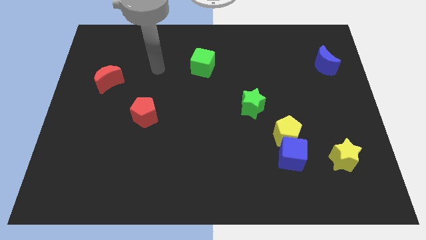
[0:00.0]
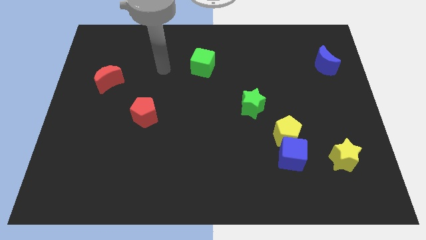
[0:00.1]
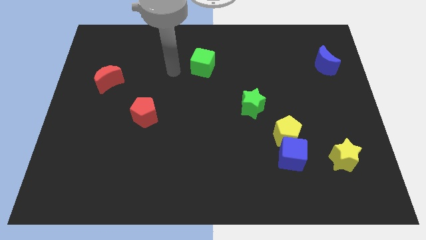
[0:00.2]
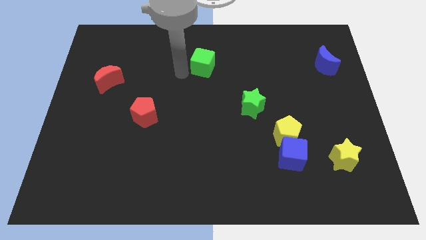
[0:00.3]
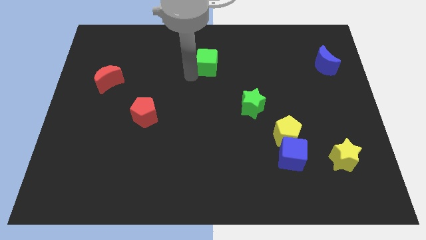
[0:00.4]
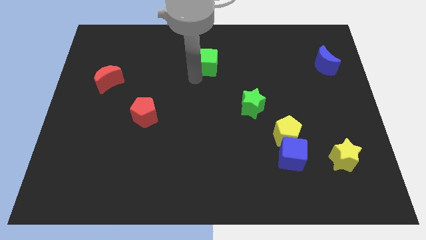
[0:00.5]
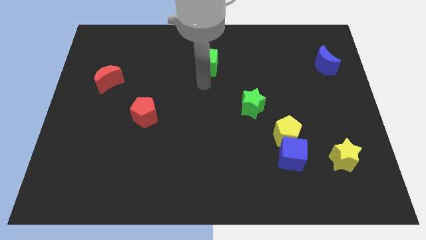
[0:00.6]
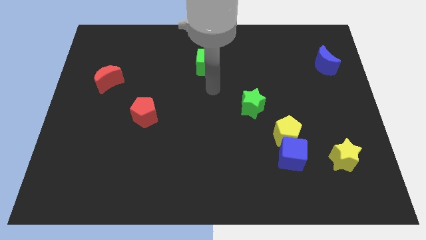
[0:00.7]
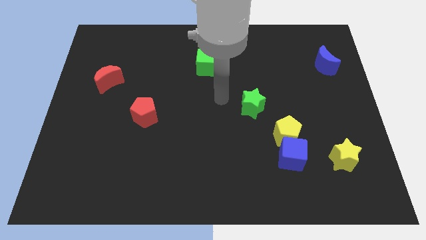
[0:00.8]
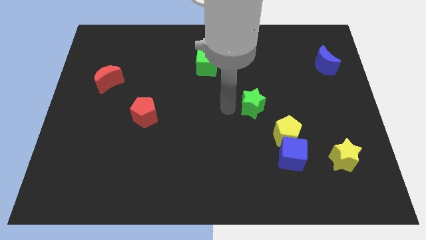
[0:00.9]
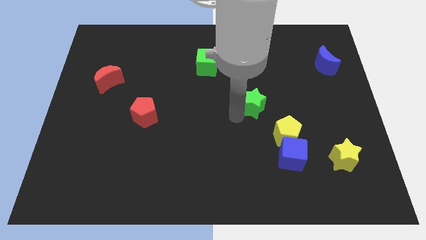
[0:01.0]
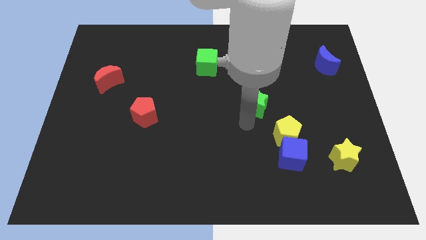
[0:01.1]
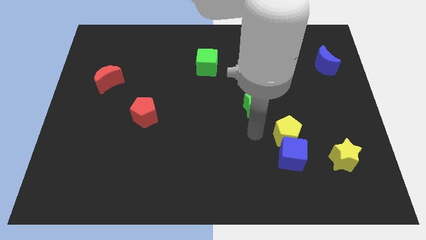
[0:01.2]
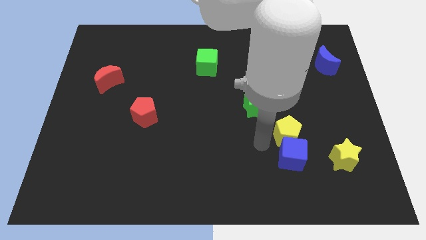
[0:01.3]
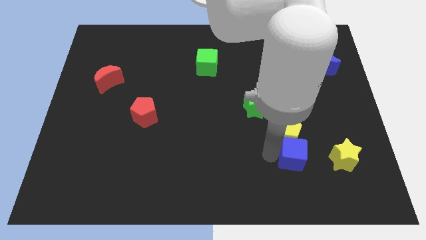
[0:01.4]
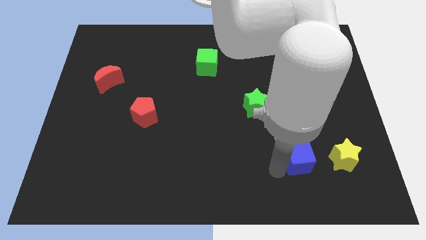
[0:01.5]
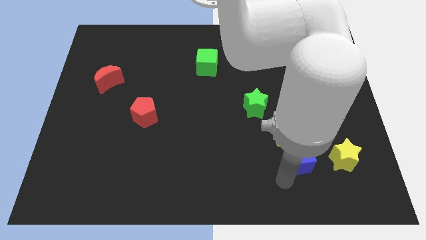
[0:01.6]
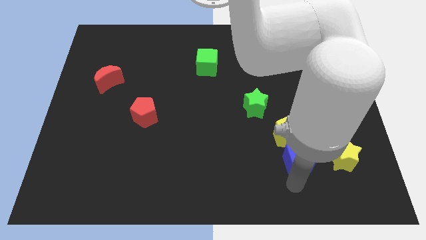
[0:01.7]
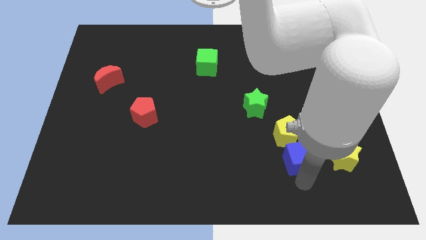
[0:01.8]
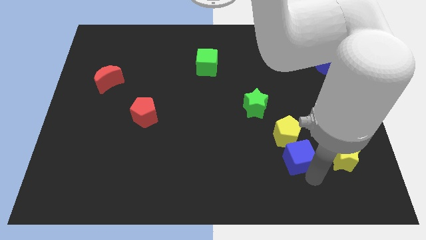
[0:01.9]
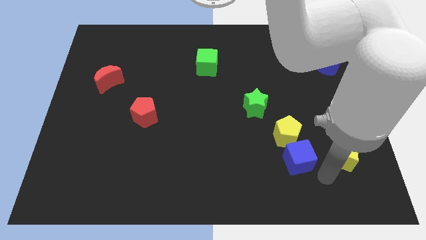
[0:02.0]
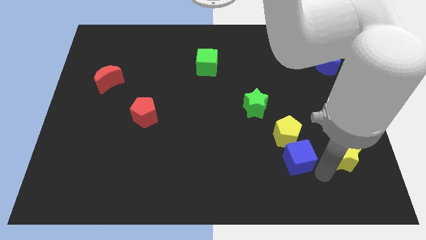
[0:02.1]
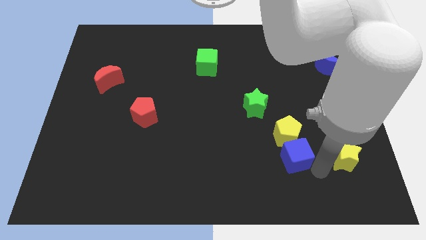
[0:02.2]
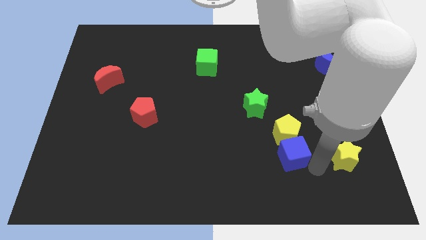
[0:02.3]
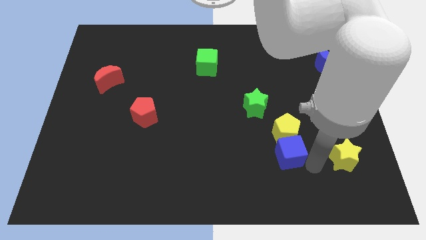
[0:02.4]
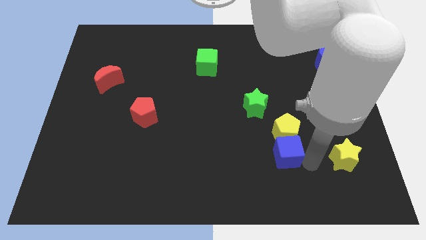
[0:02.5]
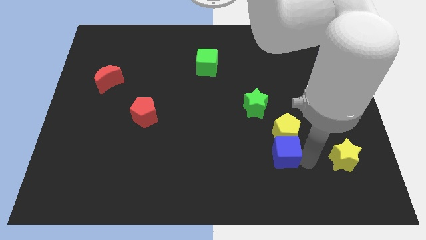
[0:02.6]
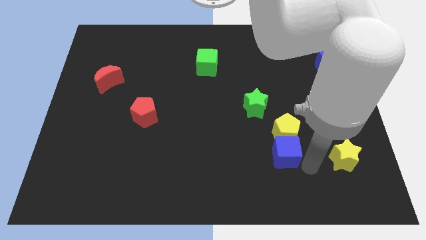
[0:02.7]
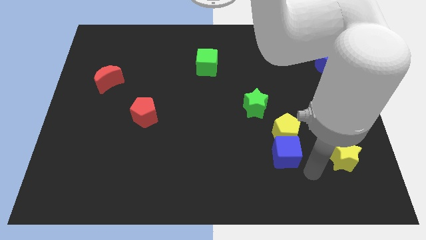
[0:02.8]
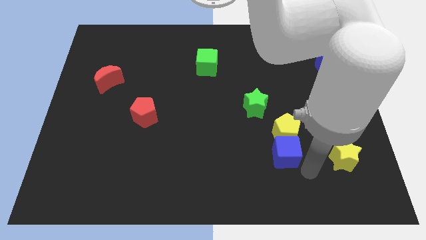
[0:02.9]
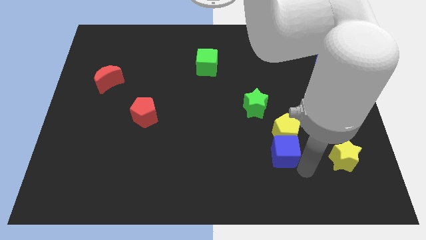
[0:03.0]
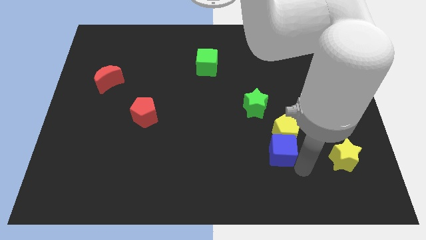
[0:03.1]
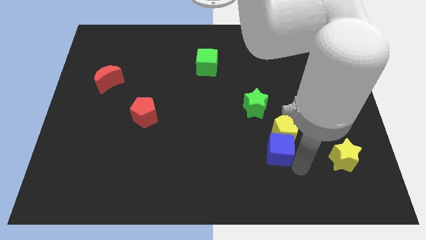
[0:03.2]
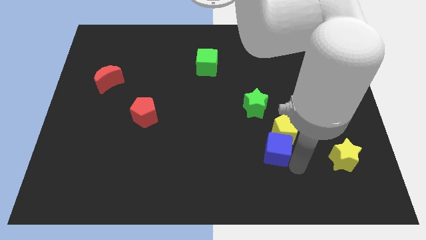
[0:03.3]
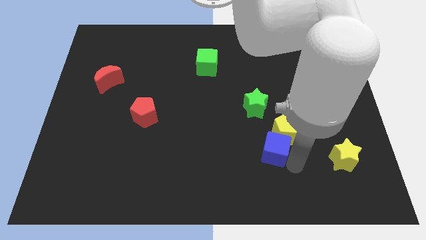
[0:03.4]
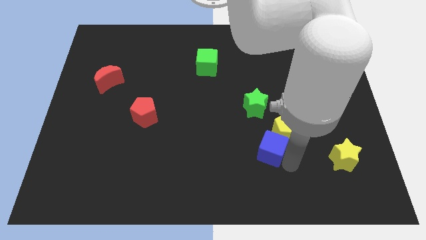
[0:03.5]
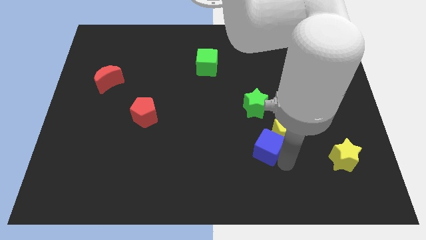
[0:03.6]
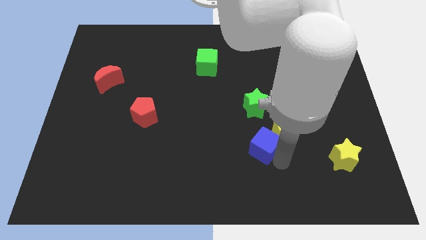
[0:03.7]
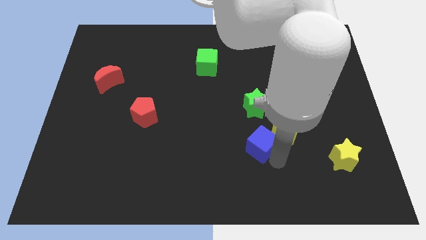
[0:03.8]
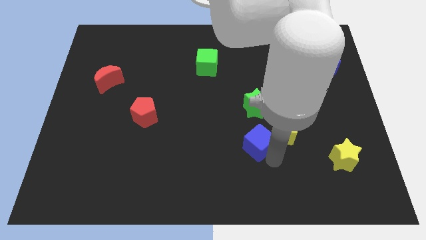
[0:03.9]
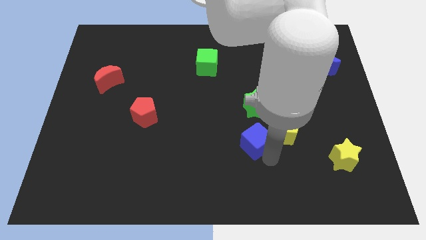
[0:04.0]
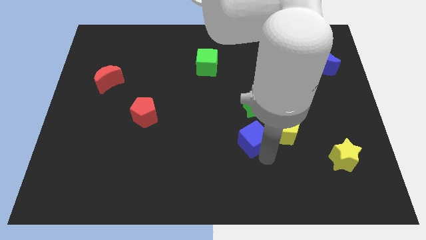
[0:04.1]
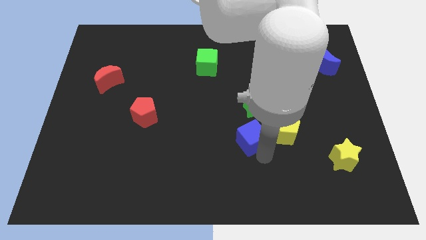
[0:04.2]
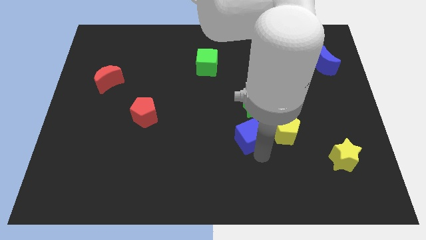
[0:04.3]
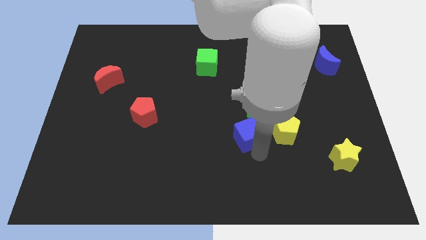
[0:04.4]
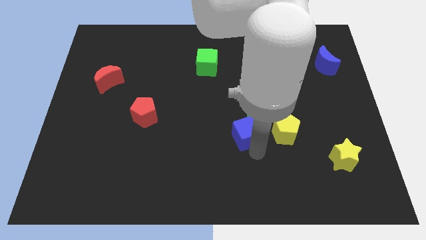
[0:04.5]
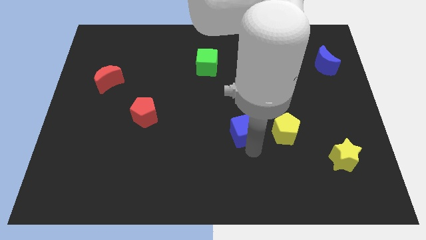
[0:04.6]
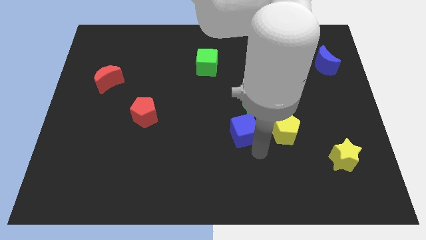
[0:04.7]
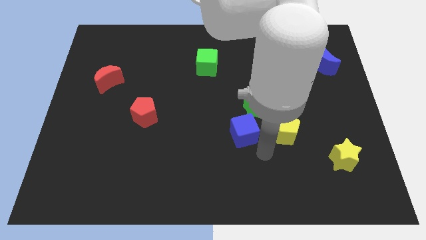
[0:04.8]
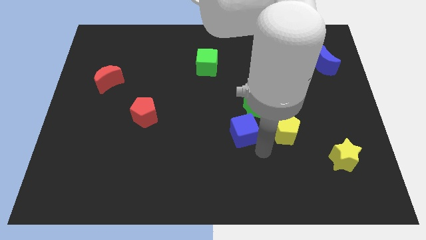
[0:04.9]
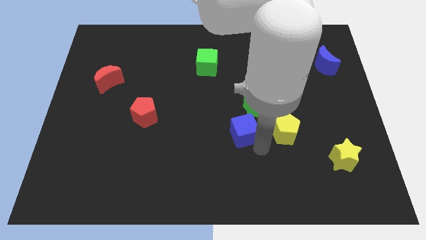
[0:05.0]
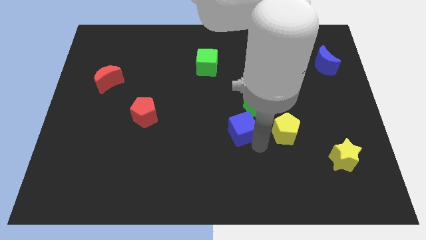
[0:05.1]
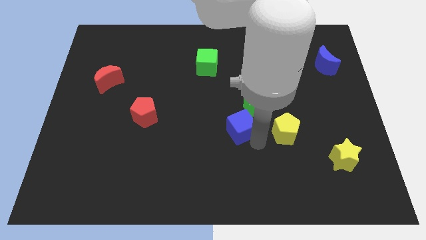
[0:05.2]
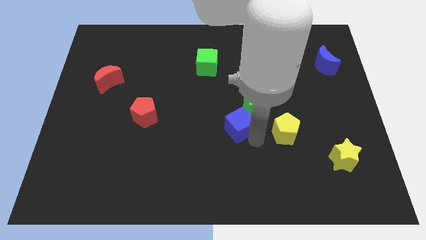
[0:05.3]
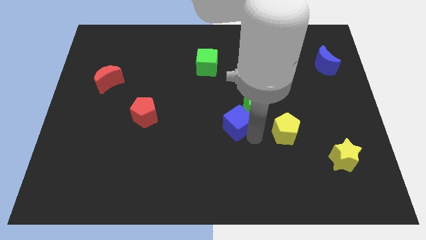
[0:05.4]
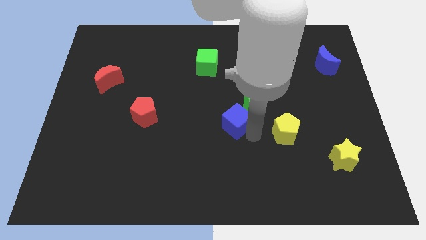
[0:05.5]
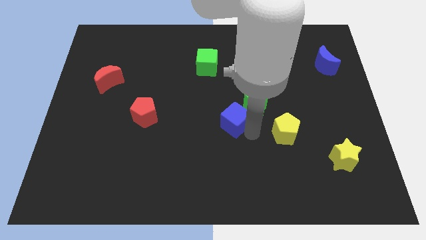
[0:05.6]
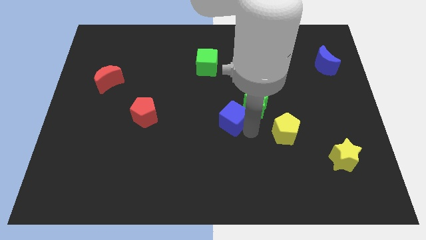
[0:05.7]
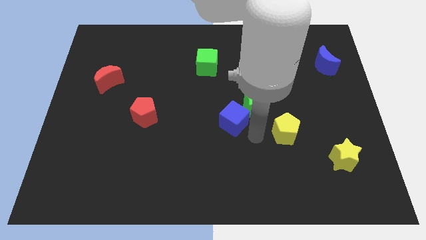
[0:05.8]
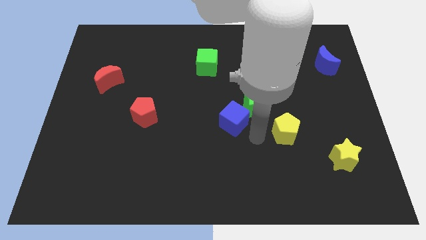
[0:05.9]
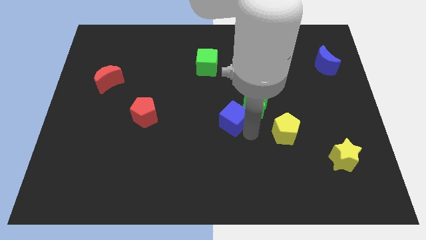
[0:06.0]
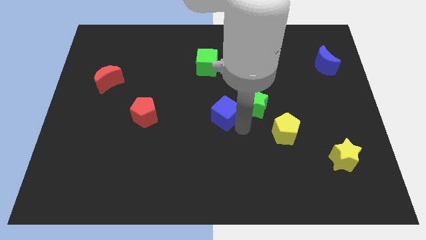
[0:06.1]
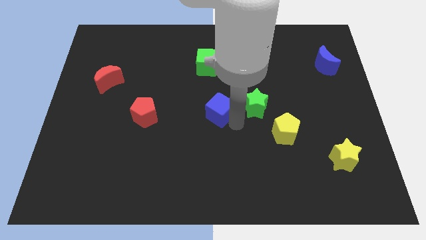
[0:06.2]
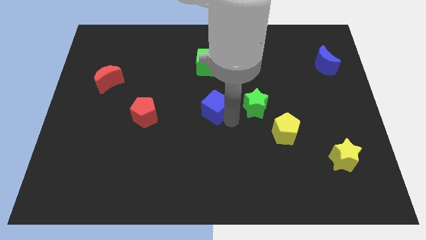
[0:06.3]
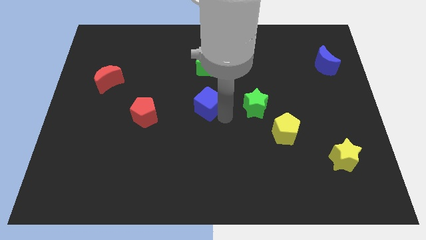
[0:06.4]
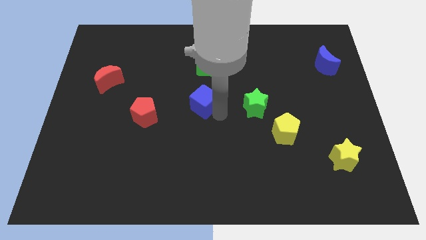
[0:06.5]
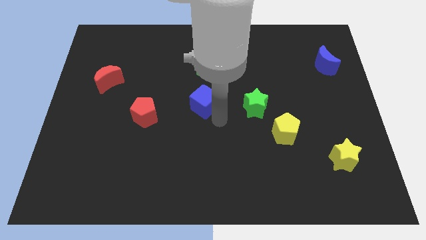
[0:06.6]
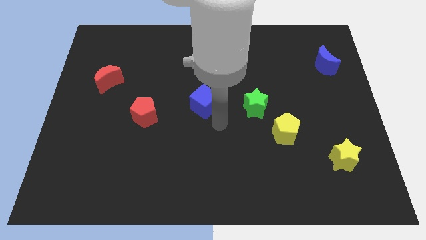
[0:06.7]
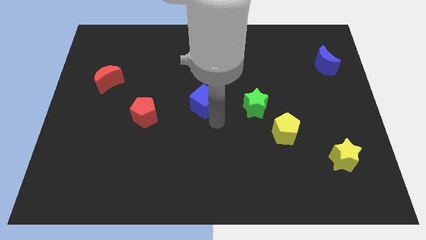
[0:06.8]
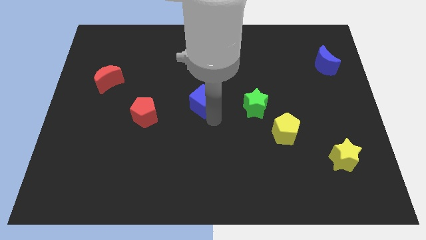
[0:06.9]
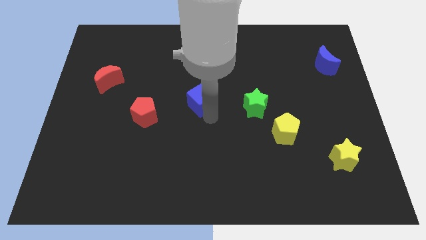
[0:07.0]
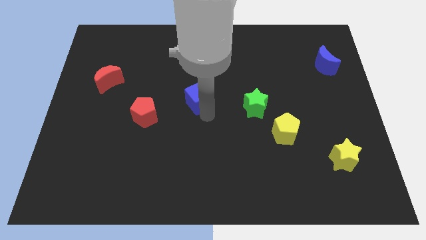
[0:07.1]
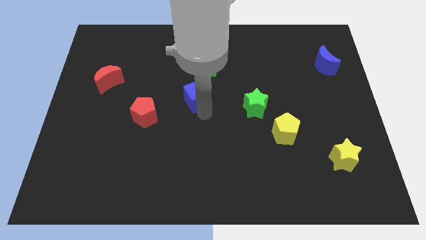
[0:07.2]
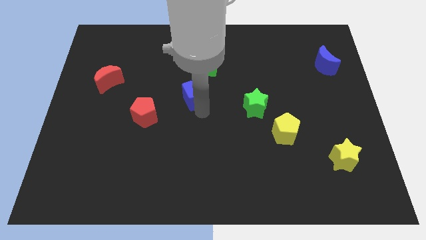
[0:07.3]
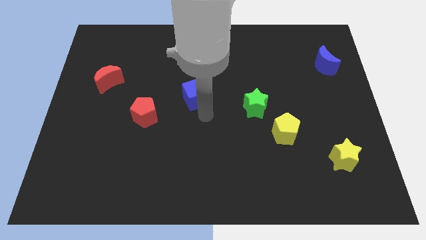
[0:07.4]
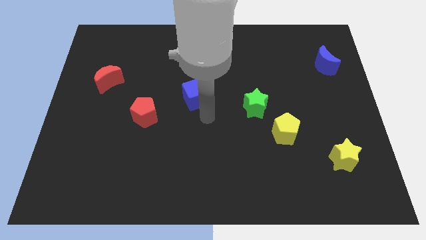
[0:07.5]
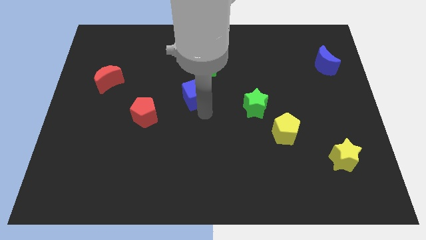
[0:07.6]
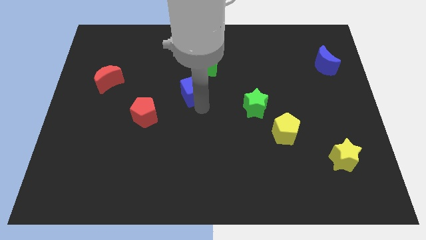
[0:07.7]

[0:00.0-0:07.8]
slide the blue cube to the bottom left side of the green cube
